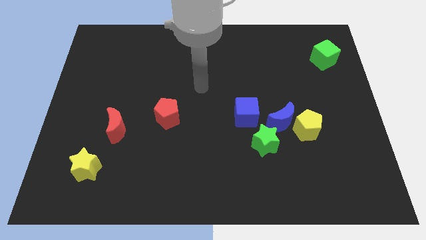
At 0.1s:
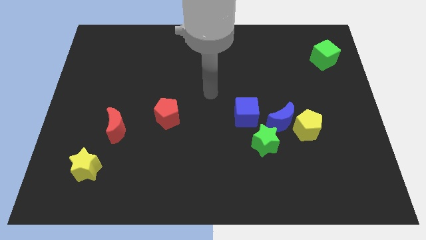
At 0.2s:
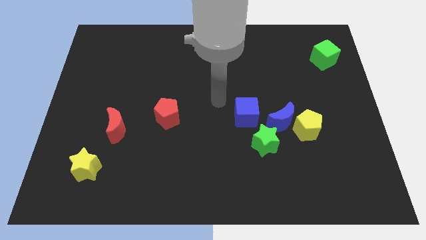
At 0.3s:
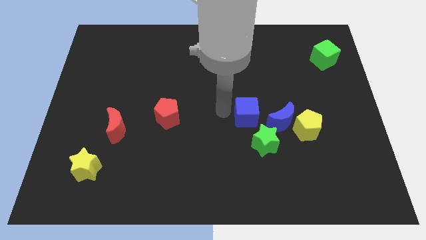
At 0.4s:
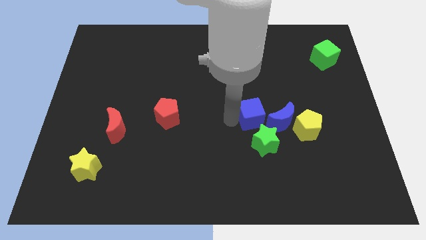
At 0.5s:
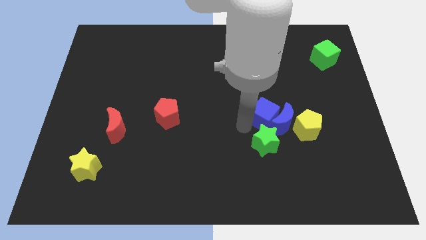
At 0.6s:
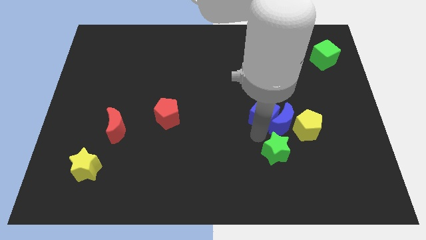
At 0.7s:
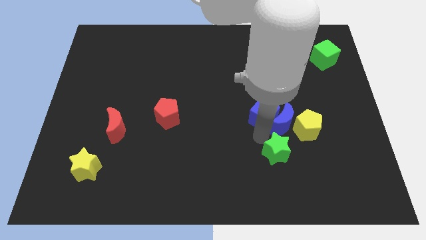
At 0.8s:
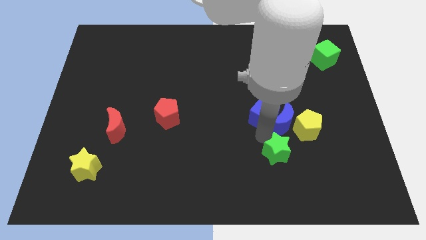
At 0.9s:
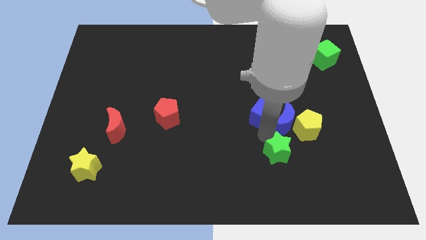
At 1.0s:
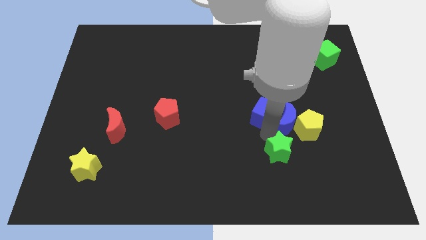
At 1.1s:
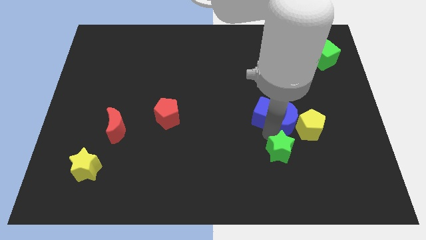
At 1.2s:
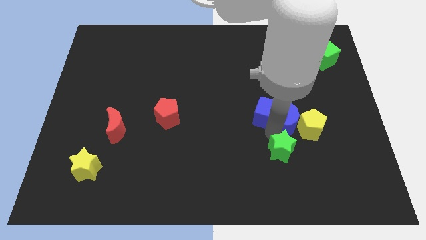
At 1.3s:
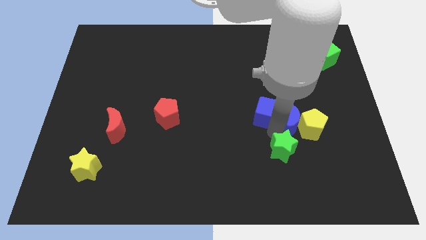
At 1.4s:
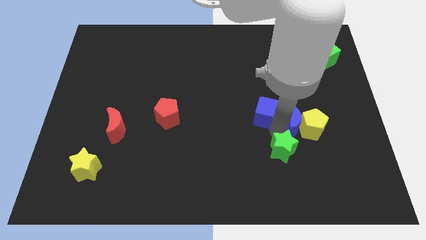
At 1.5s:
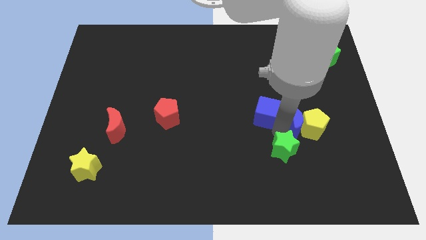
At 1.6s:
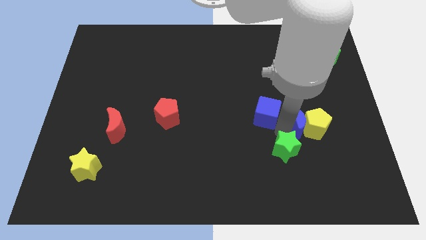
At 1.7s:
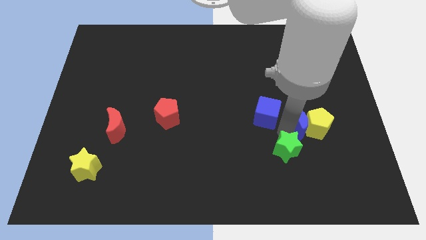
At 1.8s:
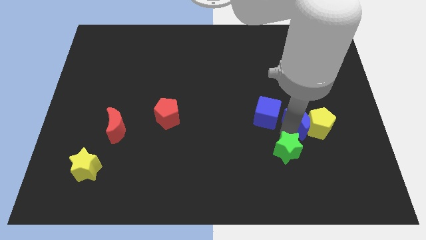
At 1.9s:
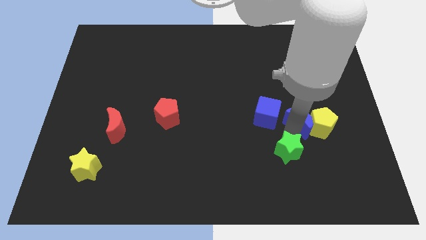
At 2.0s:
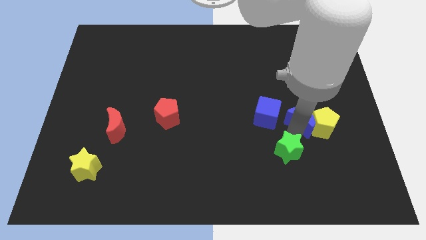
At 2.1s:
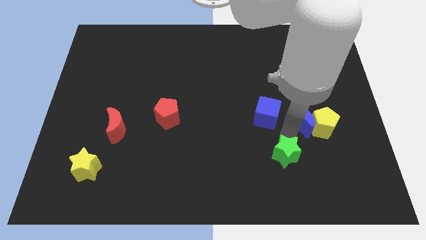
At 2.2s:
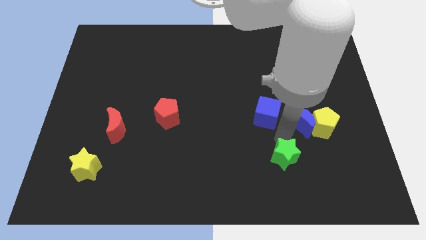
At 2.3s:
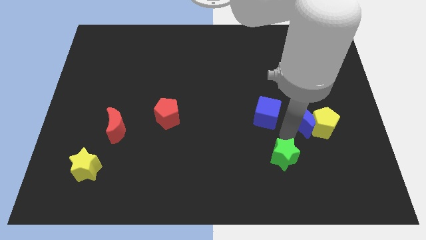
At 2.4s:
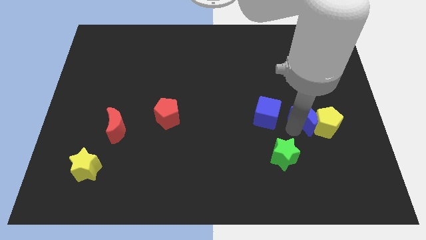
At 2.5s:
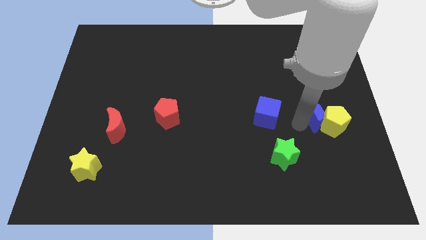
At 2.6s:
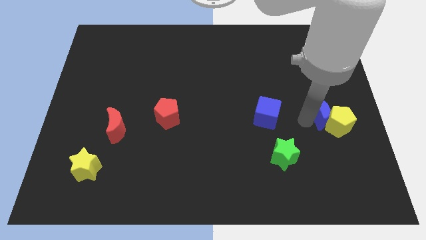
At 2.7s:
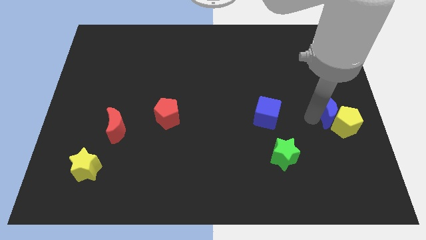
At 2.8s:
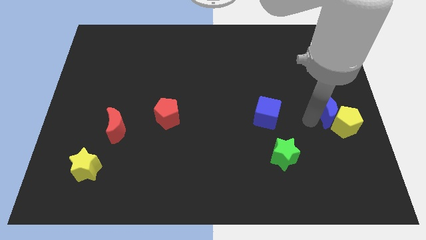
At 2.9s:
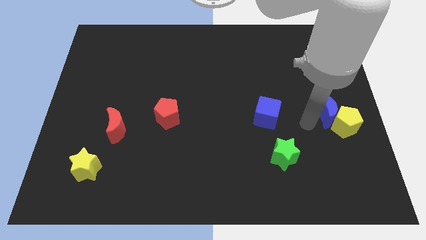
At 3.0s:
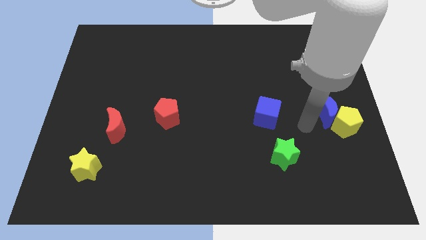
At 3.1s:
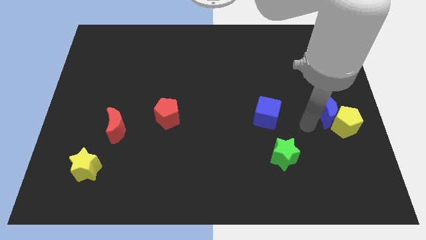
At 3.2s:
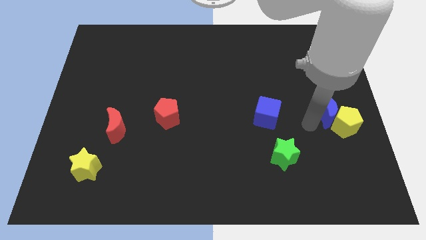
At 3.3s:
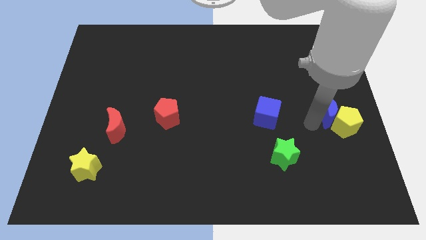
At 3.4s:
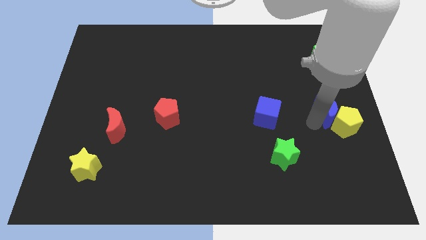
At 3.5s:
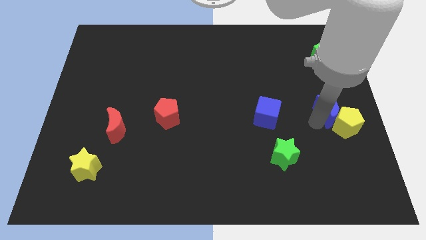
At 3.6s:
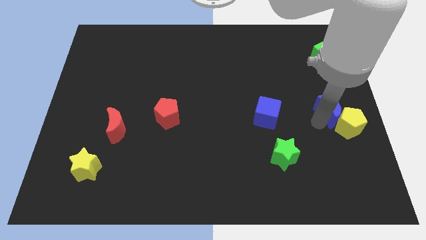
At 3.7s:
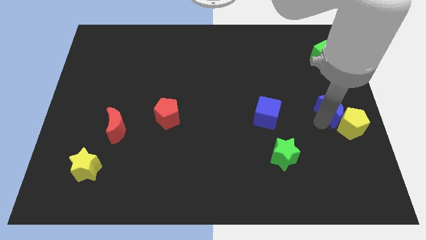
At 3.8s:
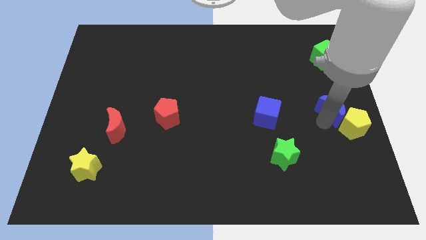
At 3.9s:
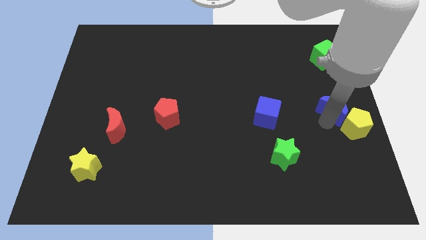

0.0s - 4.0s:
pull the blue moon apart from the yellow pentagon, green star, and blue cube

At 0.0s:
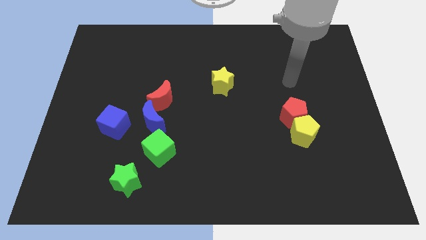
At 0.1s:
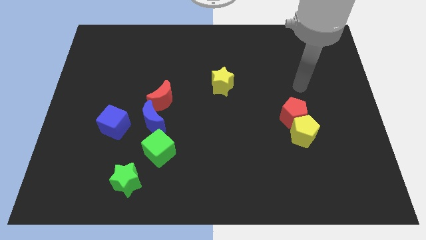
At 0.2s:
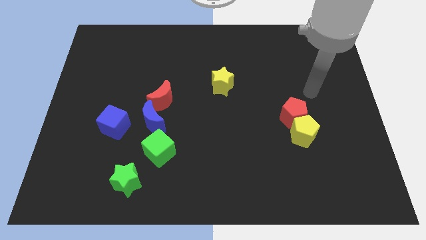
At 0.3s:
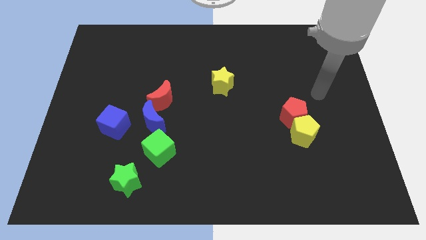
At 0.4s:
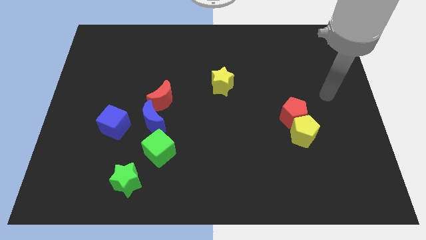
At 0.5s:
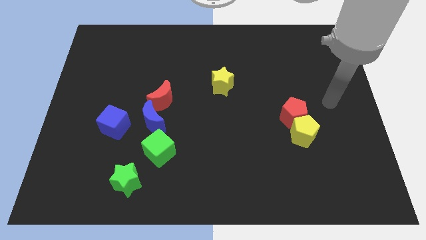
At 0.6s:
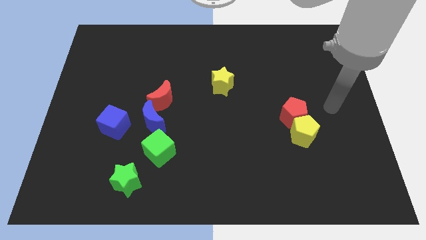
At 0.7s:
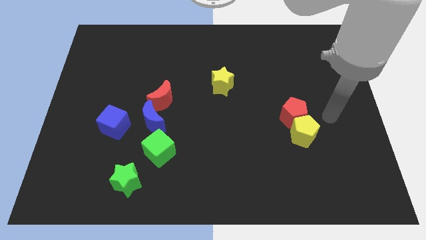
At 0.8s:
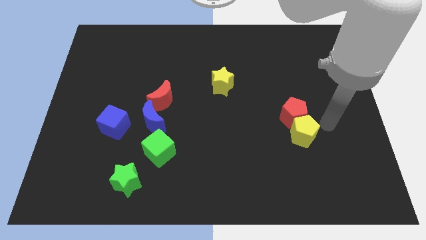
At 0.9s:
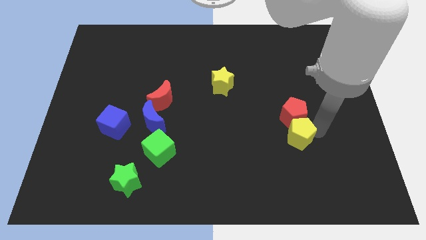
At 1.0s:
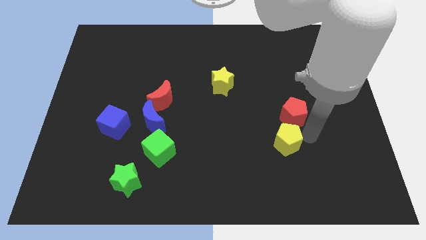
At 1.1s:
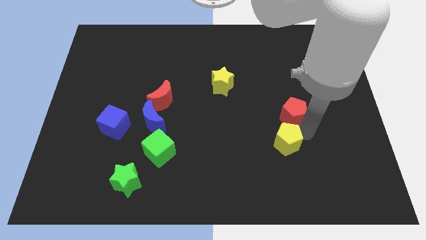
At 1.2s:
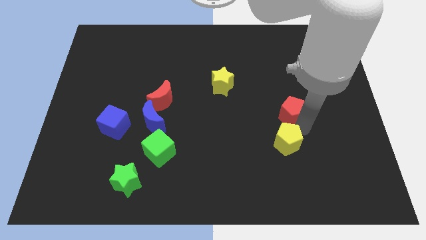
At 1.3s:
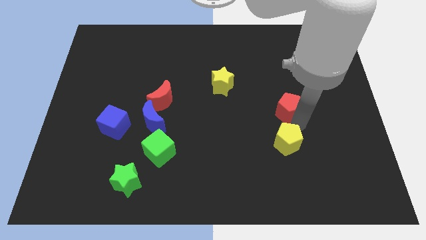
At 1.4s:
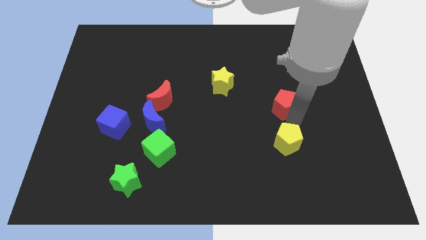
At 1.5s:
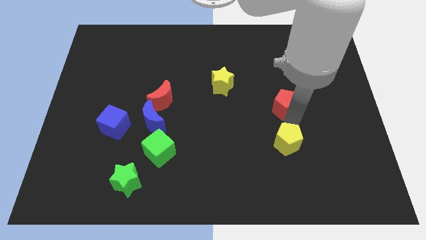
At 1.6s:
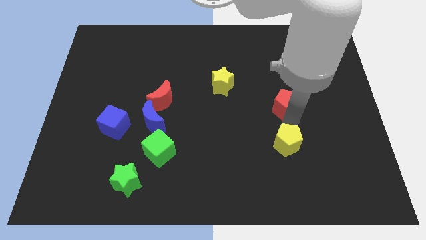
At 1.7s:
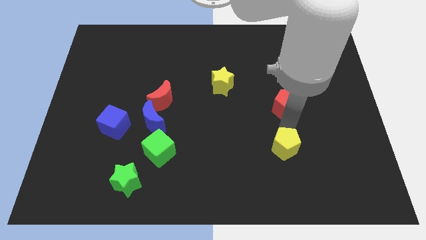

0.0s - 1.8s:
pull the red pentagon apart from the yellow pentagon

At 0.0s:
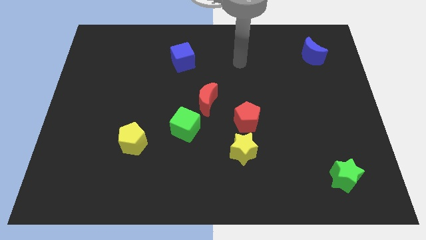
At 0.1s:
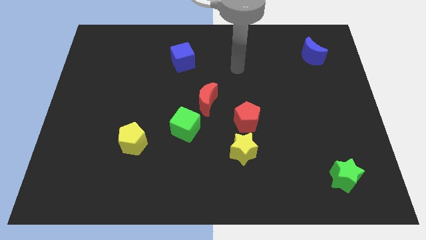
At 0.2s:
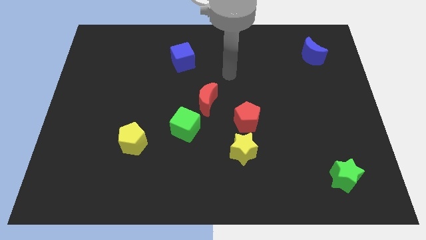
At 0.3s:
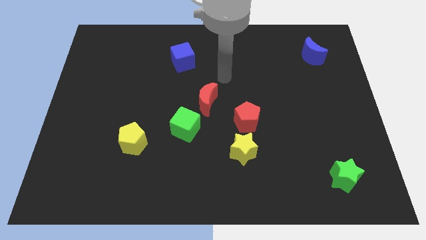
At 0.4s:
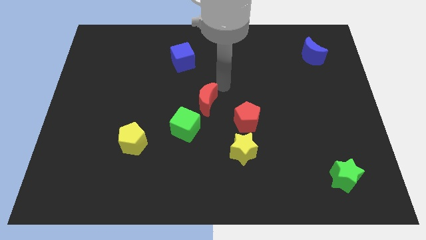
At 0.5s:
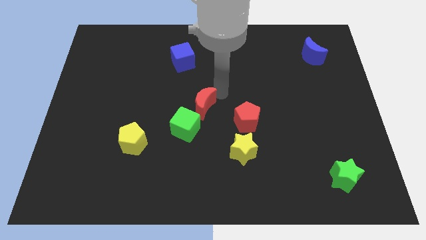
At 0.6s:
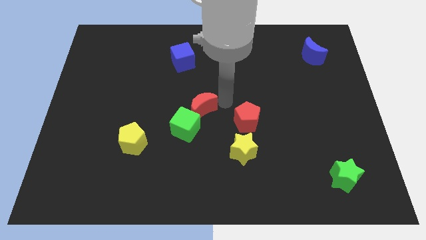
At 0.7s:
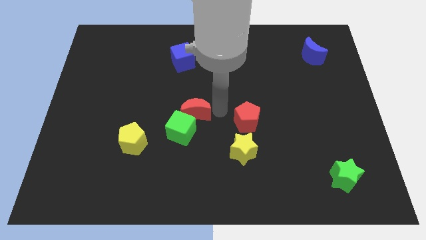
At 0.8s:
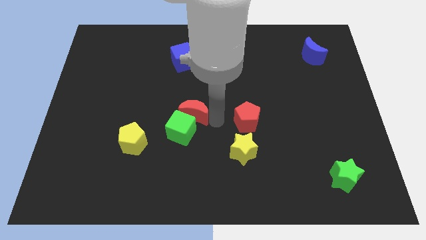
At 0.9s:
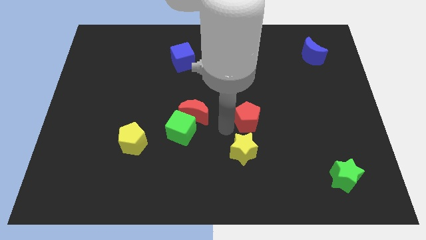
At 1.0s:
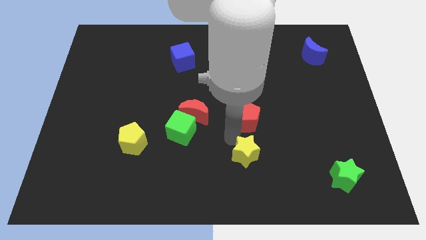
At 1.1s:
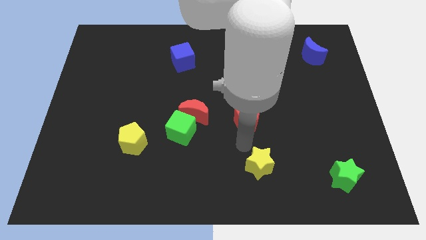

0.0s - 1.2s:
pull the red pentagon apart from the yellow star

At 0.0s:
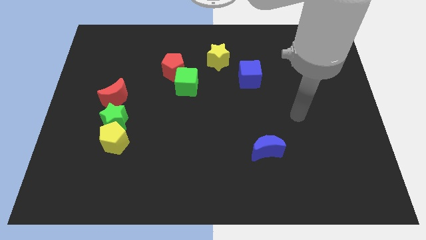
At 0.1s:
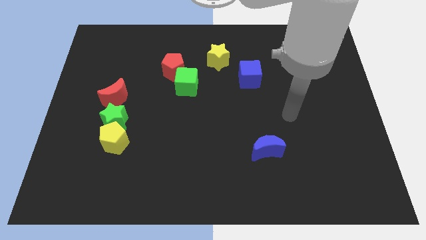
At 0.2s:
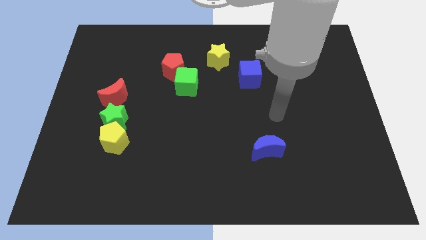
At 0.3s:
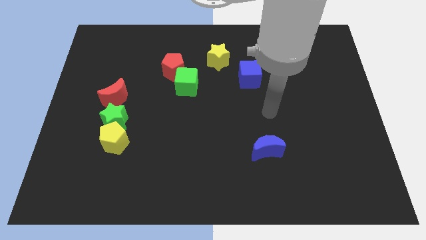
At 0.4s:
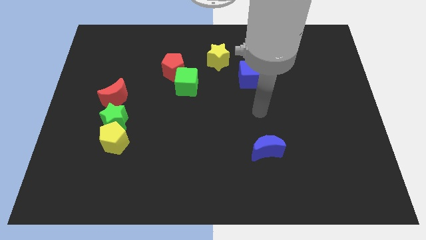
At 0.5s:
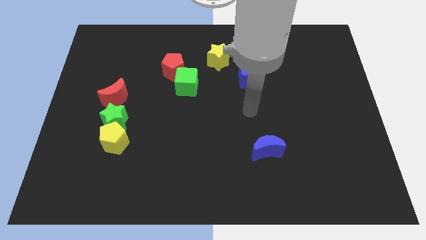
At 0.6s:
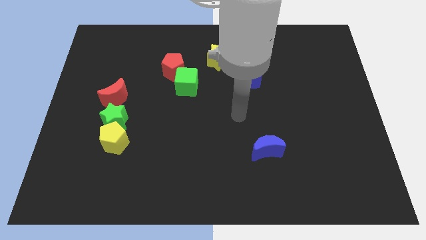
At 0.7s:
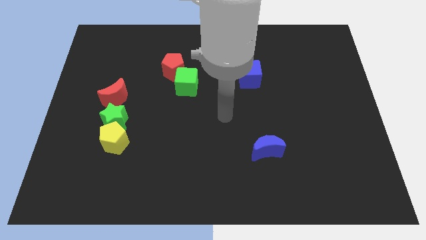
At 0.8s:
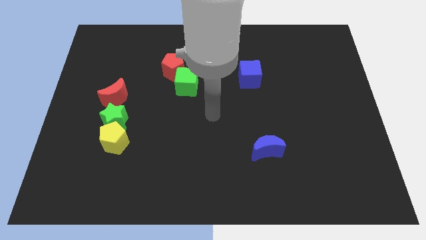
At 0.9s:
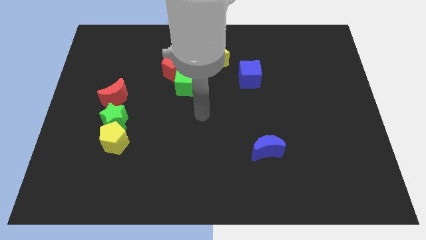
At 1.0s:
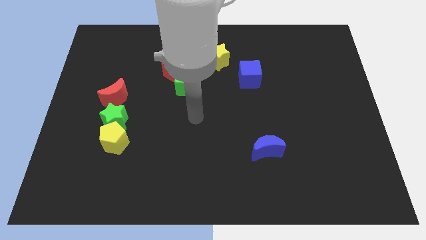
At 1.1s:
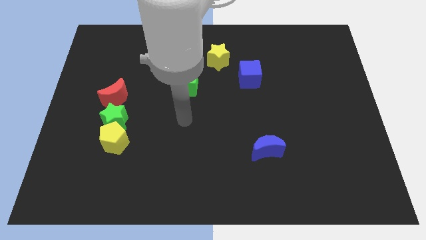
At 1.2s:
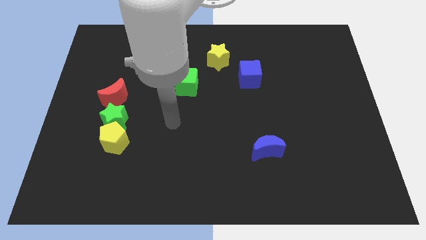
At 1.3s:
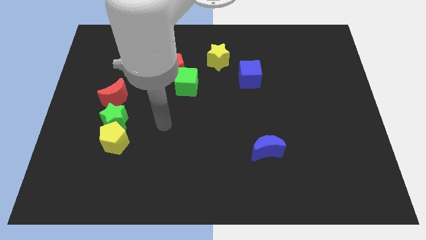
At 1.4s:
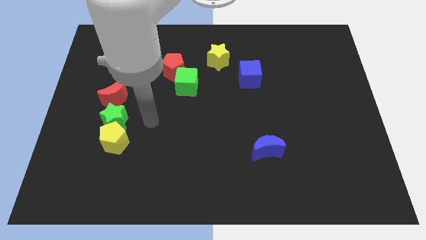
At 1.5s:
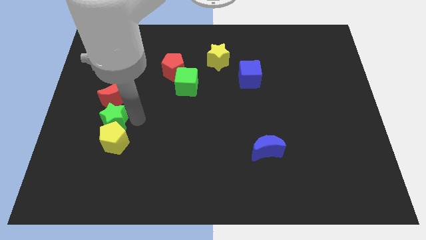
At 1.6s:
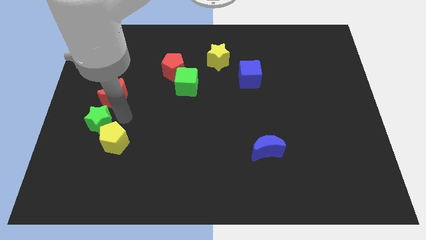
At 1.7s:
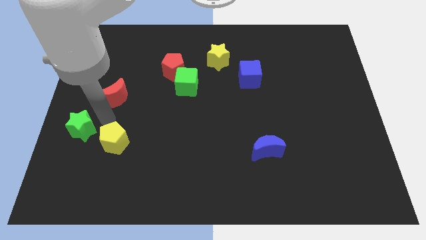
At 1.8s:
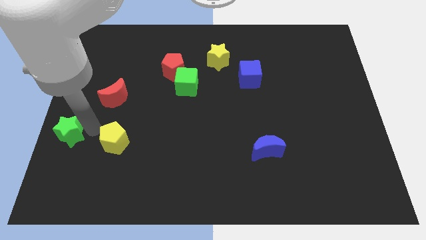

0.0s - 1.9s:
move the yellow pentagon away from the green star

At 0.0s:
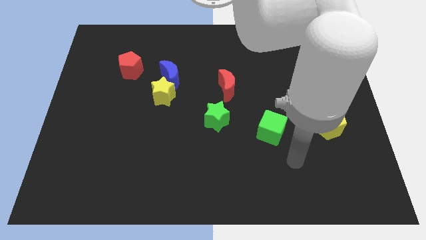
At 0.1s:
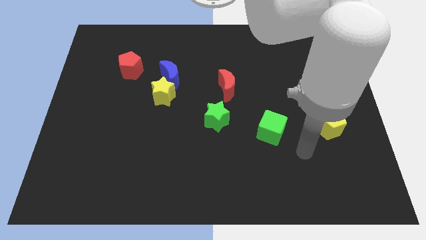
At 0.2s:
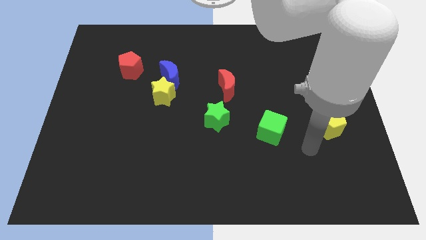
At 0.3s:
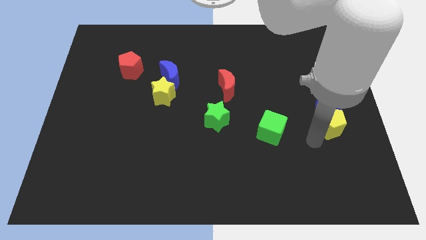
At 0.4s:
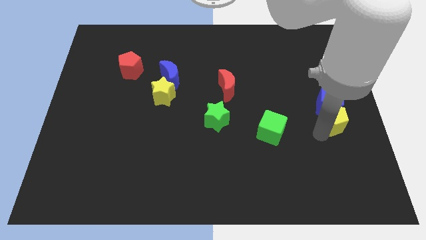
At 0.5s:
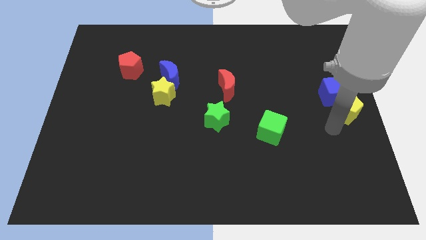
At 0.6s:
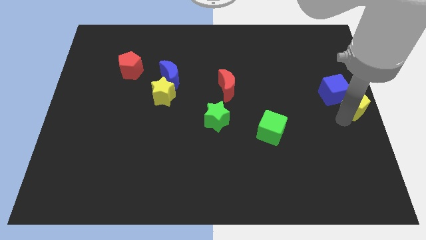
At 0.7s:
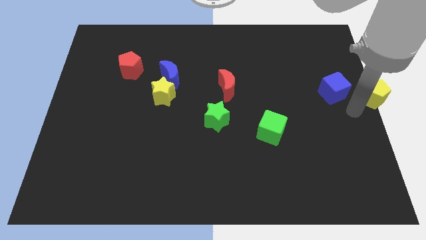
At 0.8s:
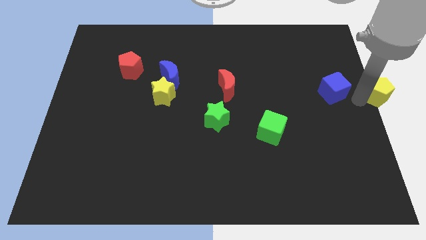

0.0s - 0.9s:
pull the blue cube apart from the yellow pentagon
